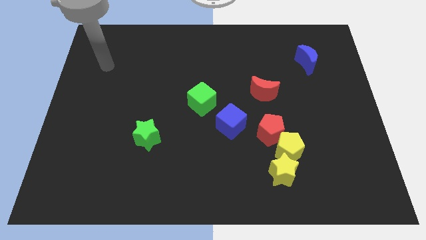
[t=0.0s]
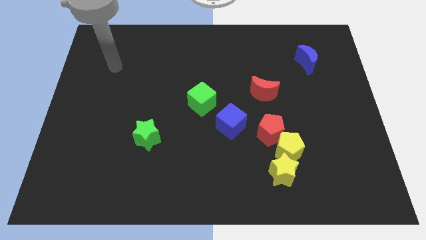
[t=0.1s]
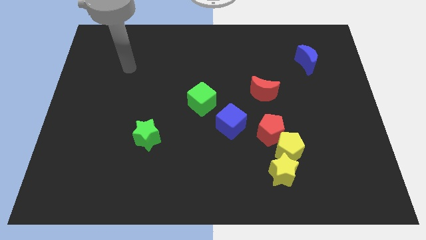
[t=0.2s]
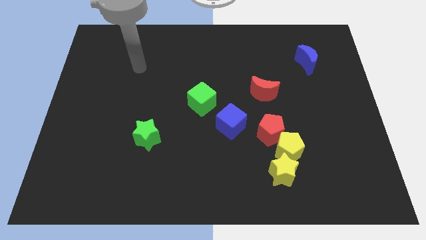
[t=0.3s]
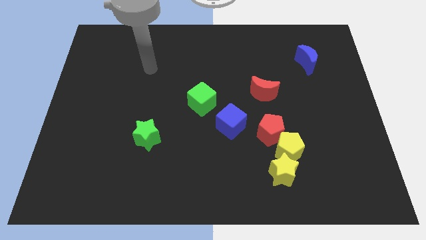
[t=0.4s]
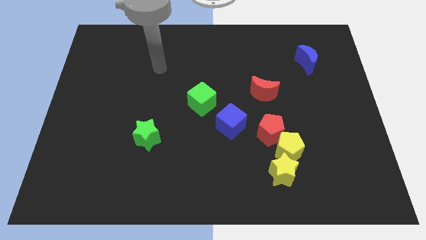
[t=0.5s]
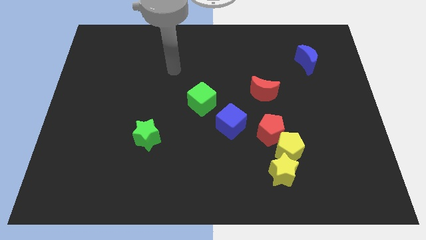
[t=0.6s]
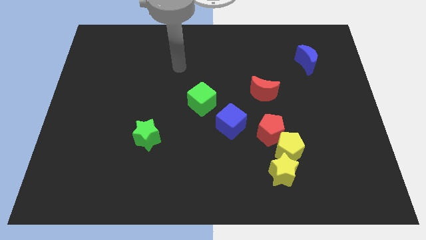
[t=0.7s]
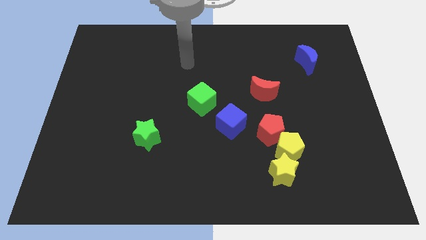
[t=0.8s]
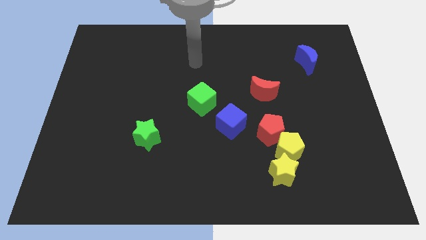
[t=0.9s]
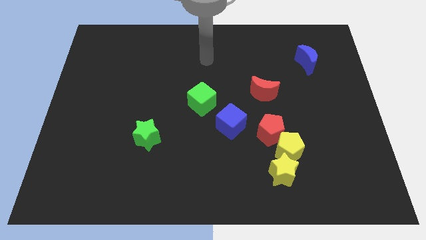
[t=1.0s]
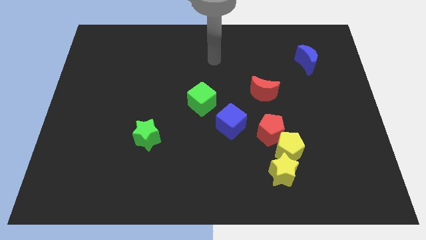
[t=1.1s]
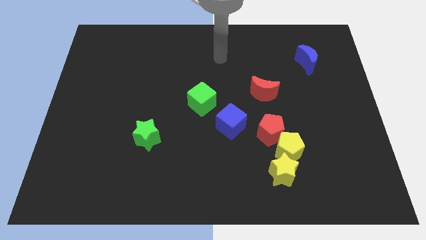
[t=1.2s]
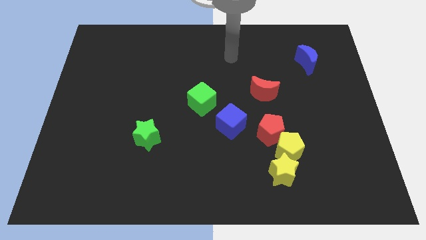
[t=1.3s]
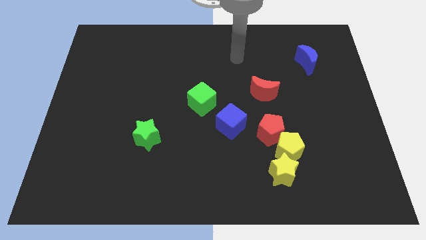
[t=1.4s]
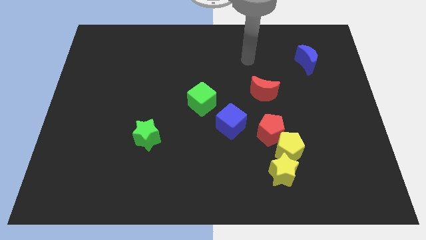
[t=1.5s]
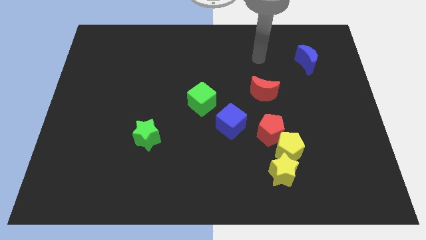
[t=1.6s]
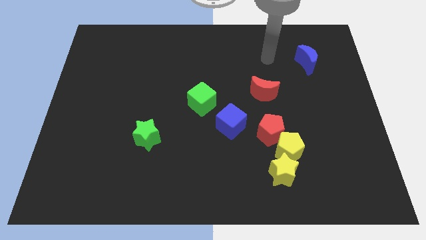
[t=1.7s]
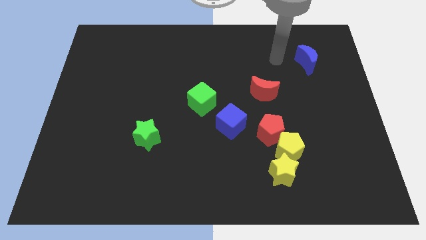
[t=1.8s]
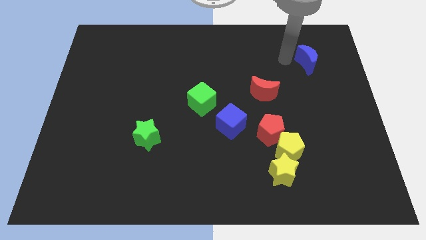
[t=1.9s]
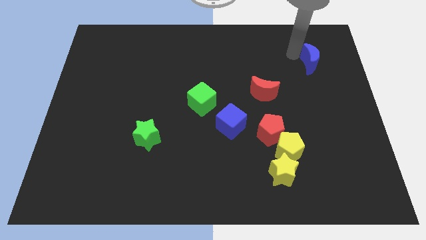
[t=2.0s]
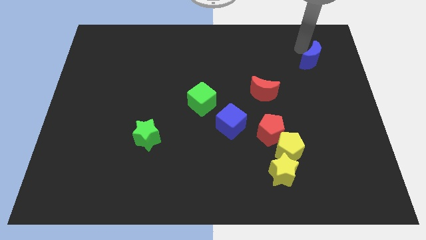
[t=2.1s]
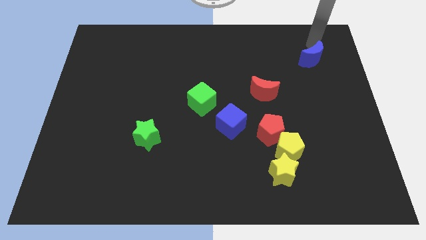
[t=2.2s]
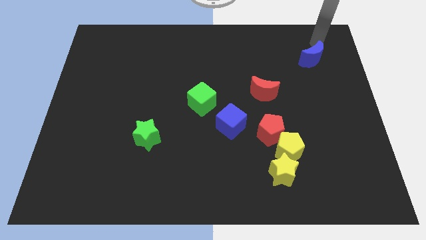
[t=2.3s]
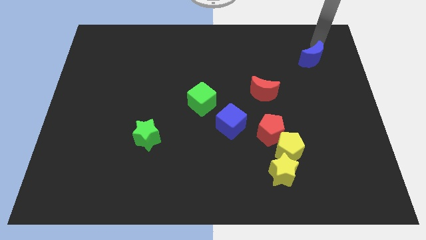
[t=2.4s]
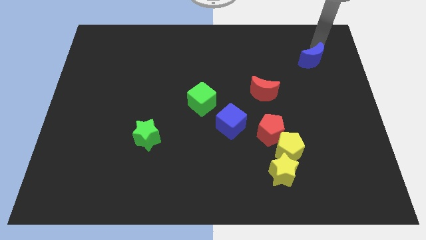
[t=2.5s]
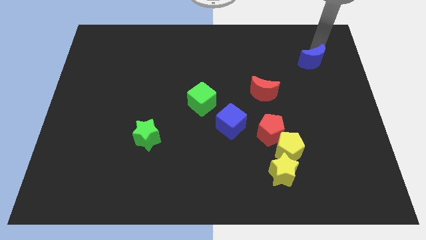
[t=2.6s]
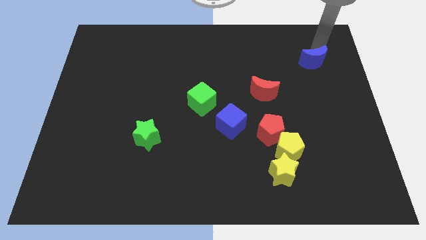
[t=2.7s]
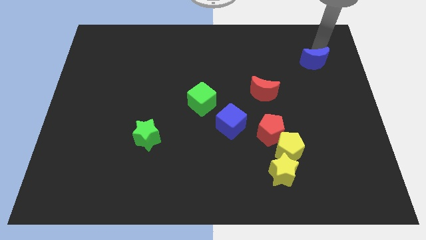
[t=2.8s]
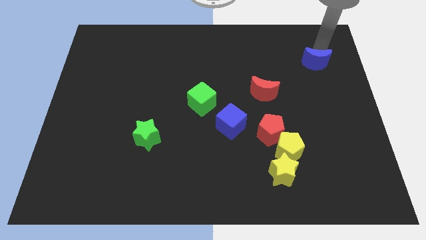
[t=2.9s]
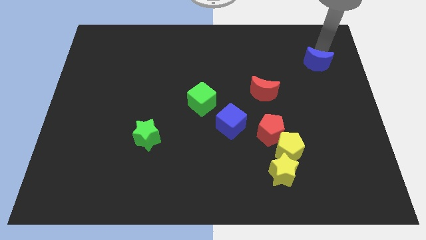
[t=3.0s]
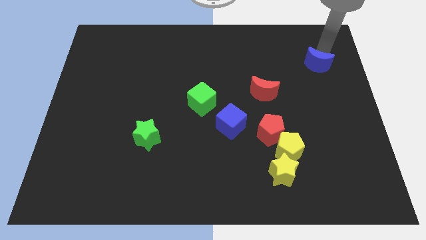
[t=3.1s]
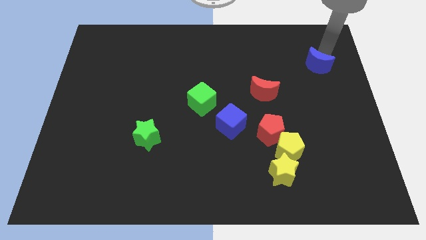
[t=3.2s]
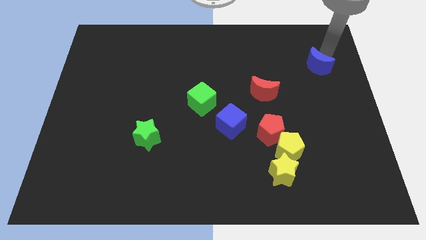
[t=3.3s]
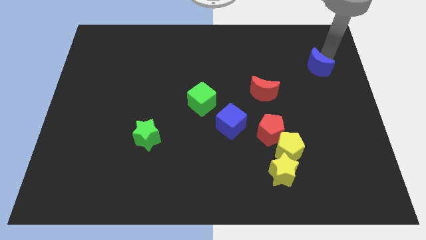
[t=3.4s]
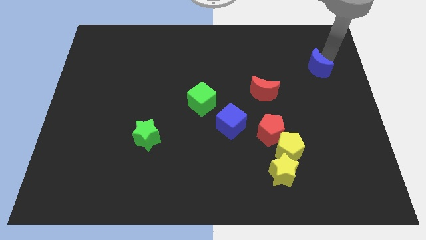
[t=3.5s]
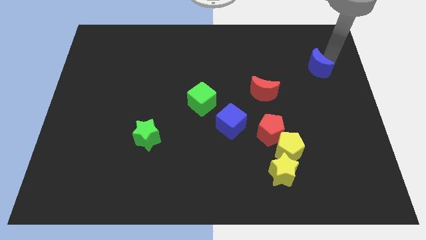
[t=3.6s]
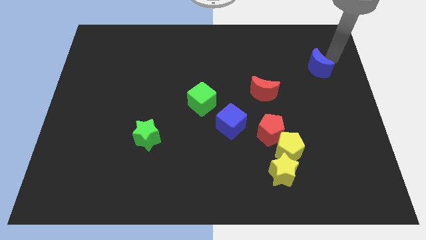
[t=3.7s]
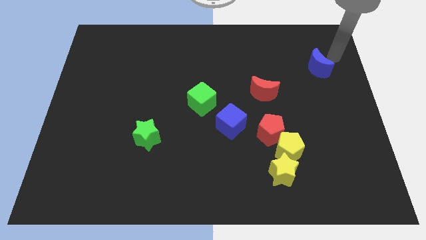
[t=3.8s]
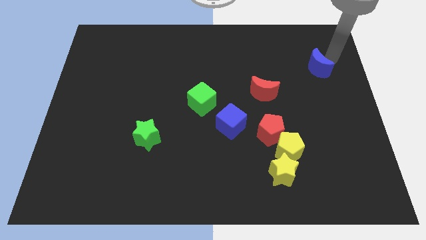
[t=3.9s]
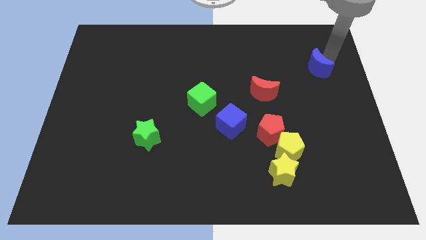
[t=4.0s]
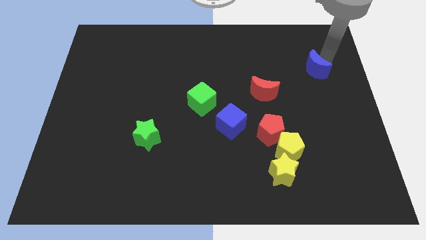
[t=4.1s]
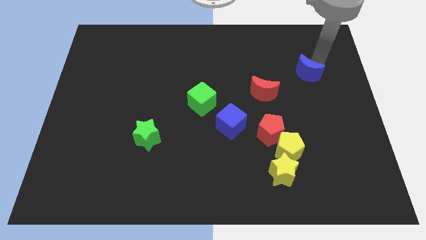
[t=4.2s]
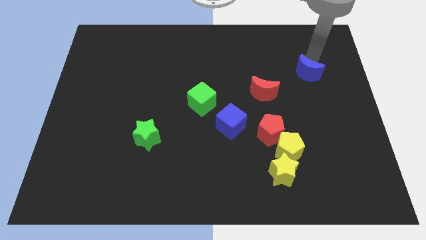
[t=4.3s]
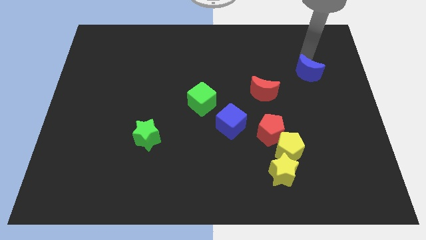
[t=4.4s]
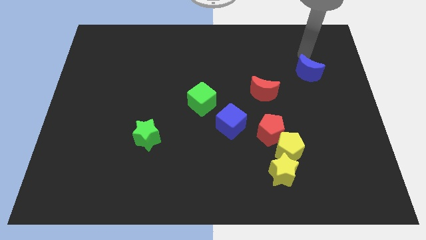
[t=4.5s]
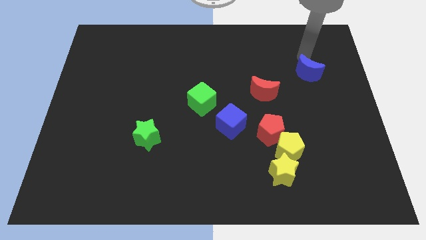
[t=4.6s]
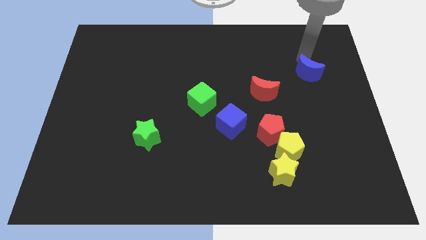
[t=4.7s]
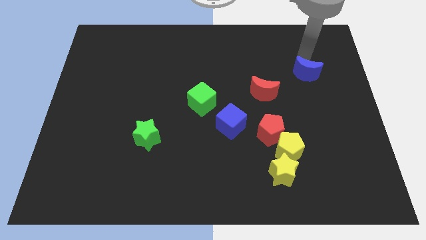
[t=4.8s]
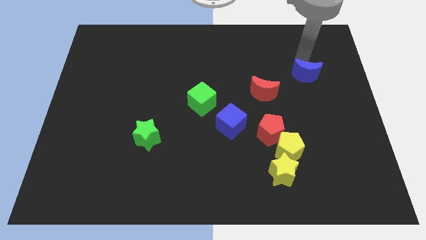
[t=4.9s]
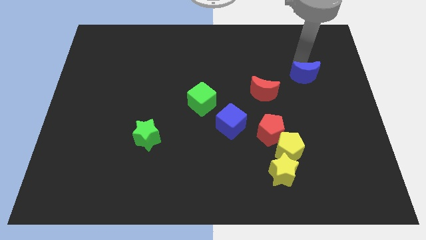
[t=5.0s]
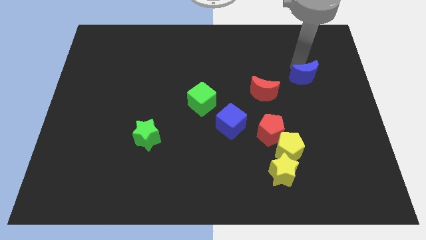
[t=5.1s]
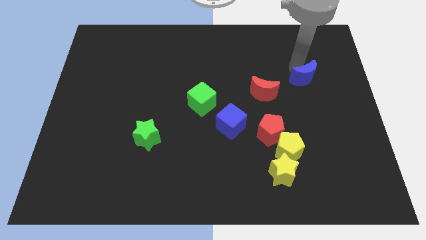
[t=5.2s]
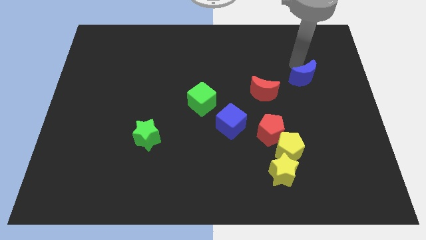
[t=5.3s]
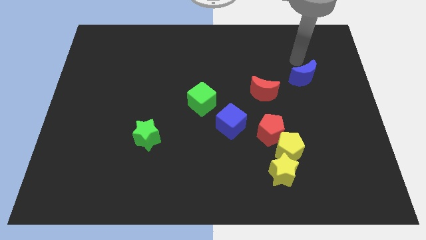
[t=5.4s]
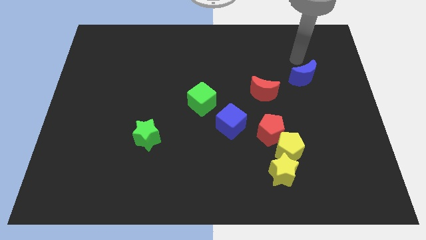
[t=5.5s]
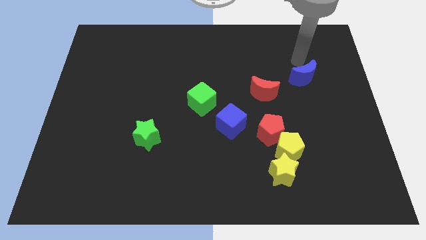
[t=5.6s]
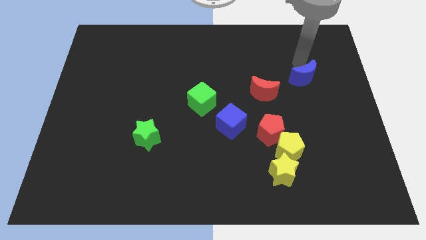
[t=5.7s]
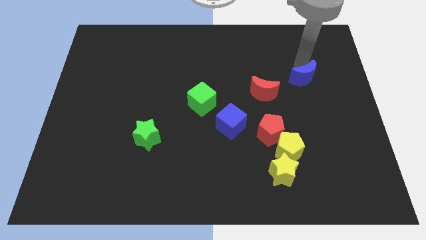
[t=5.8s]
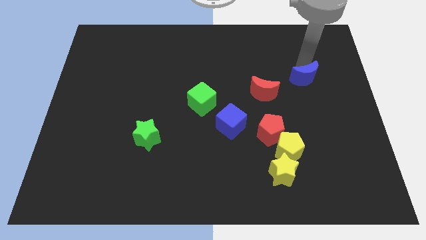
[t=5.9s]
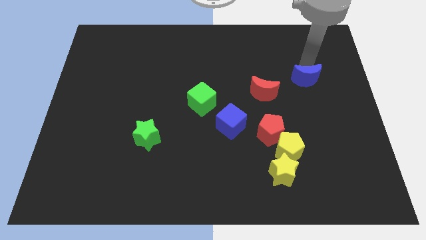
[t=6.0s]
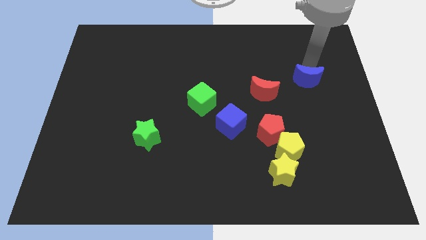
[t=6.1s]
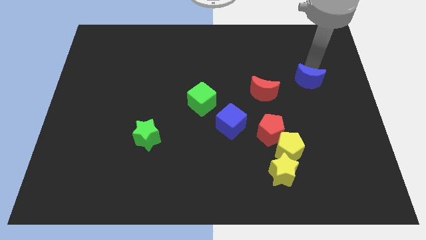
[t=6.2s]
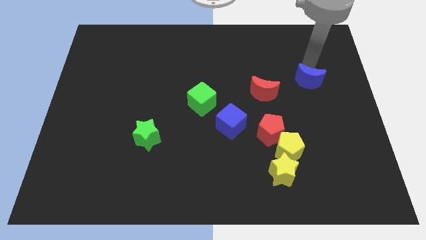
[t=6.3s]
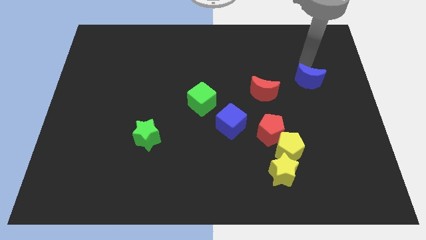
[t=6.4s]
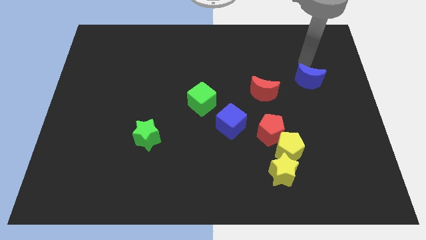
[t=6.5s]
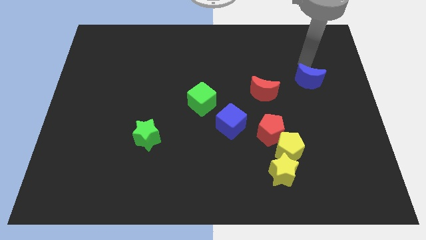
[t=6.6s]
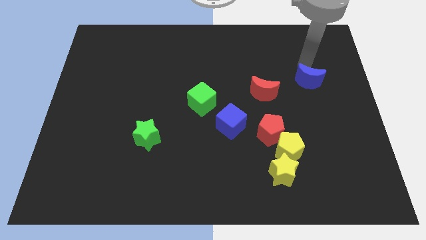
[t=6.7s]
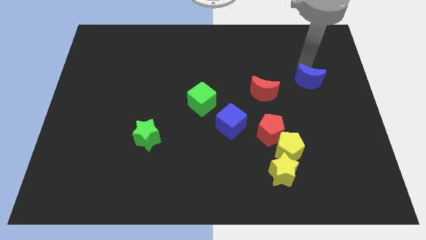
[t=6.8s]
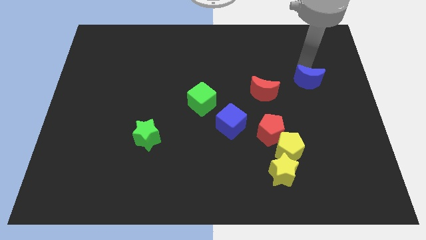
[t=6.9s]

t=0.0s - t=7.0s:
push the blue moon a little down

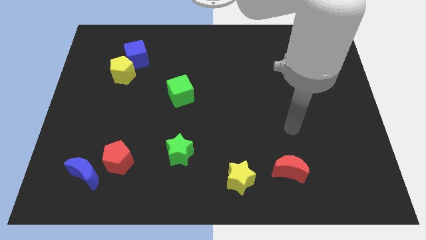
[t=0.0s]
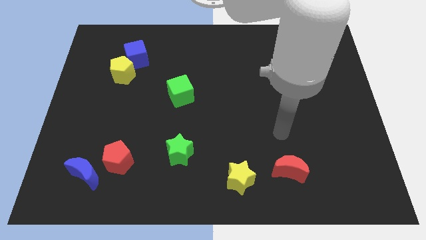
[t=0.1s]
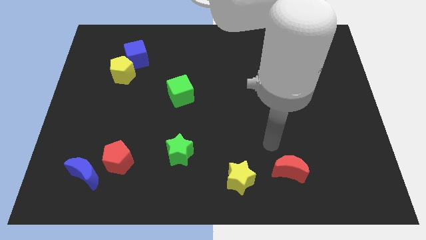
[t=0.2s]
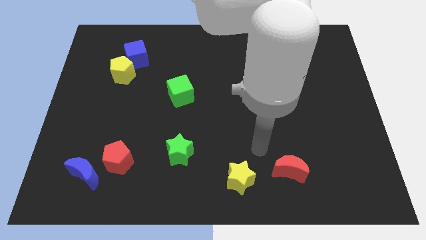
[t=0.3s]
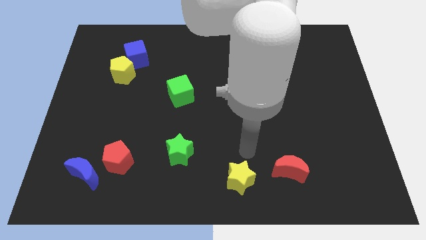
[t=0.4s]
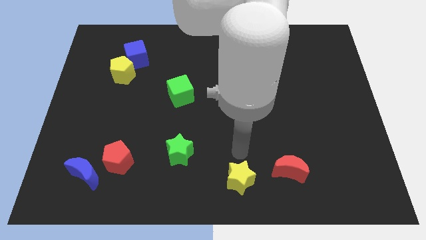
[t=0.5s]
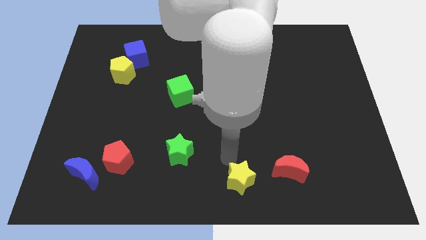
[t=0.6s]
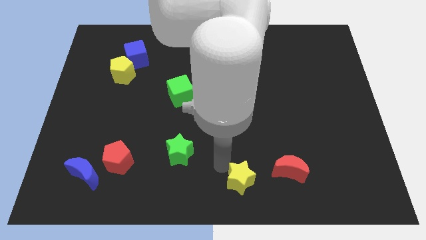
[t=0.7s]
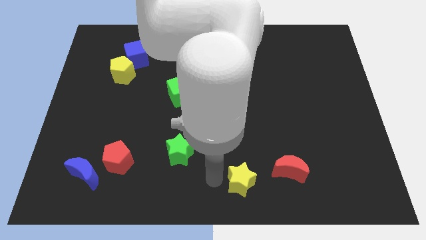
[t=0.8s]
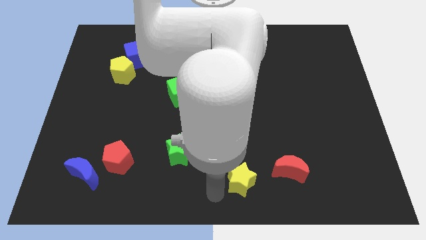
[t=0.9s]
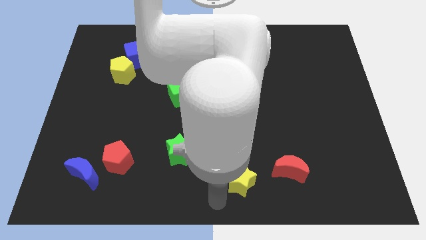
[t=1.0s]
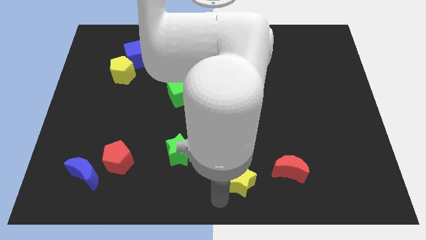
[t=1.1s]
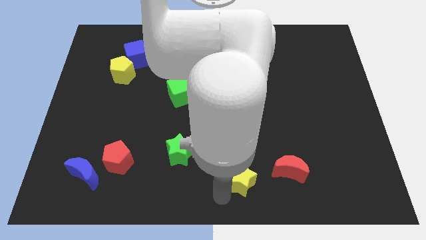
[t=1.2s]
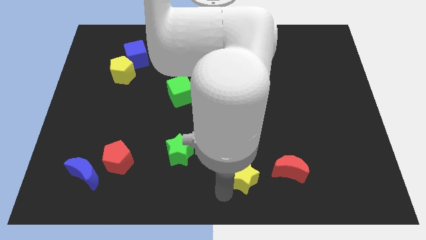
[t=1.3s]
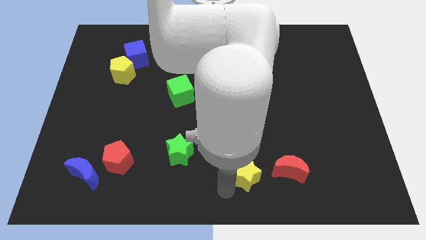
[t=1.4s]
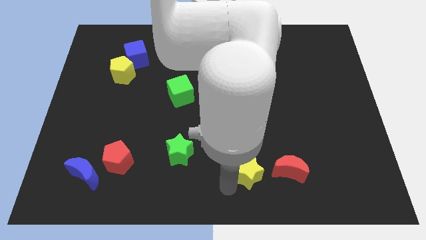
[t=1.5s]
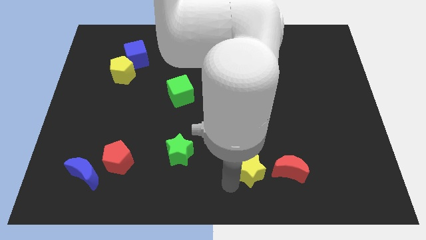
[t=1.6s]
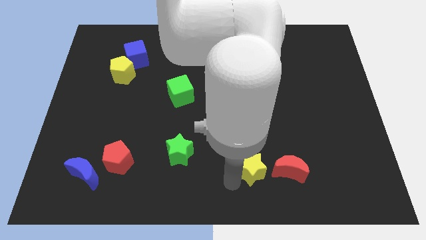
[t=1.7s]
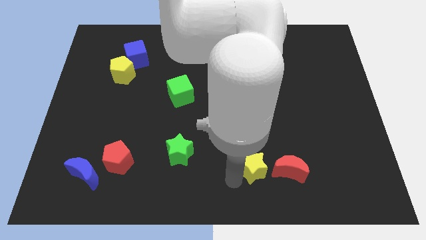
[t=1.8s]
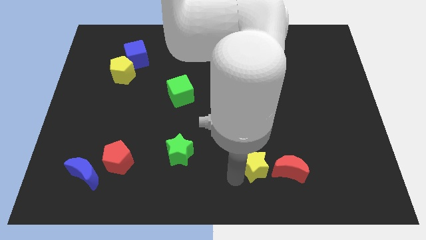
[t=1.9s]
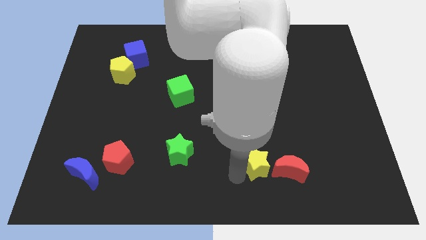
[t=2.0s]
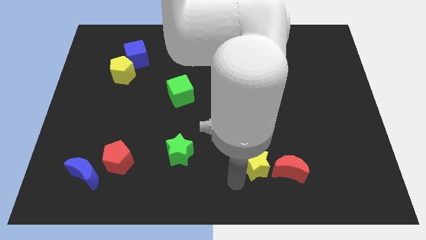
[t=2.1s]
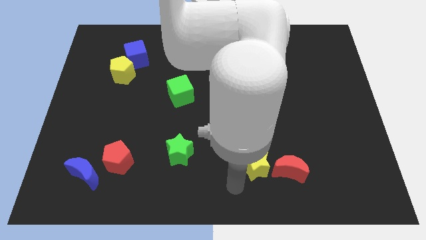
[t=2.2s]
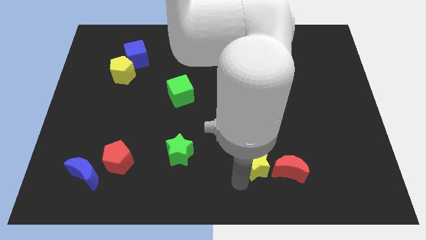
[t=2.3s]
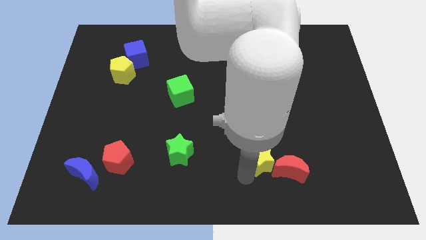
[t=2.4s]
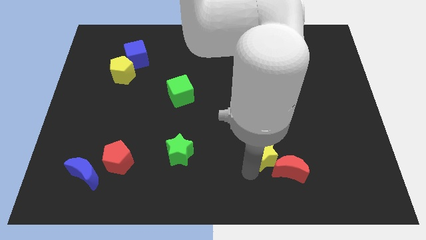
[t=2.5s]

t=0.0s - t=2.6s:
slightly slide the yellow star upwards and to the right
